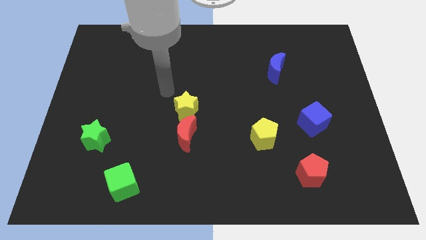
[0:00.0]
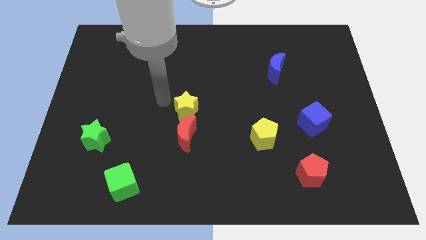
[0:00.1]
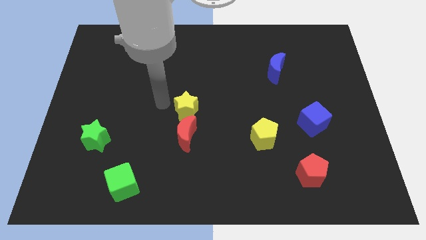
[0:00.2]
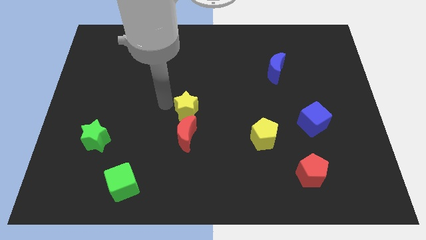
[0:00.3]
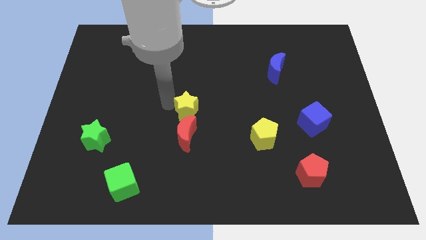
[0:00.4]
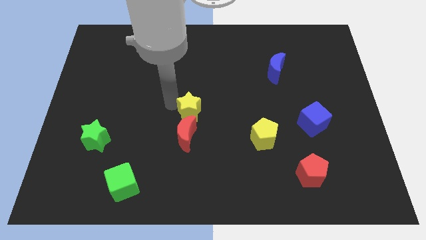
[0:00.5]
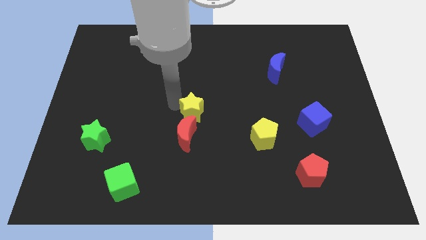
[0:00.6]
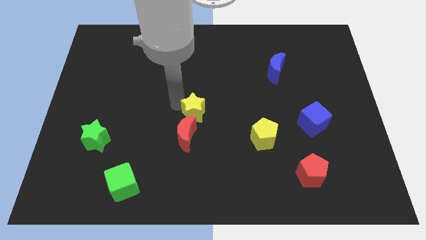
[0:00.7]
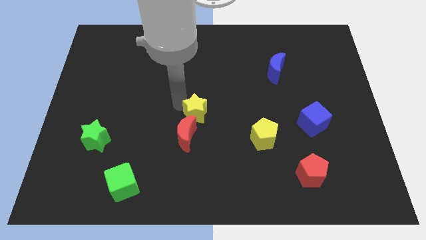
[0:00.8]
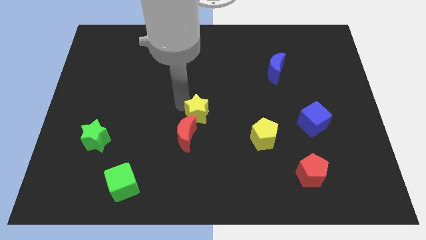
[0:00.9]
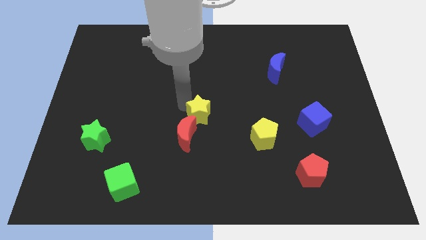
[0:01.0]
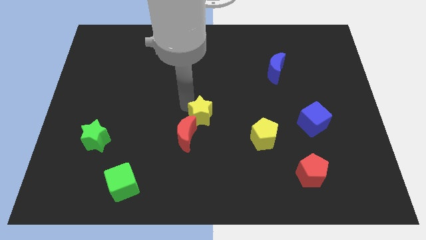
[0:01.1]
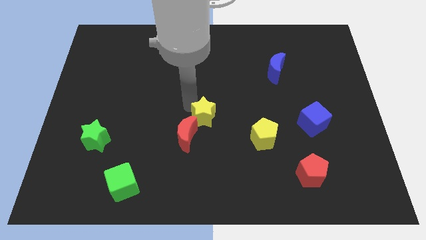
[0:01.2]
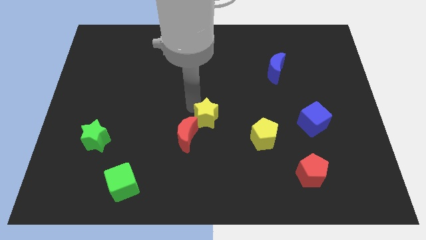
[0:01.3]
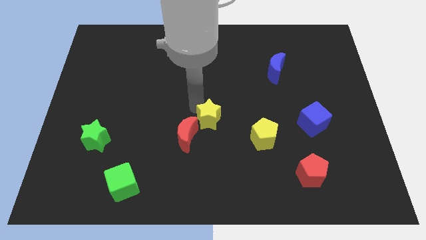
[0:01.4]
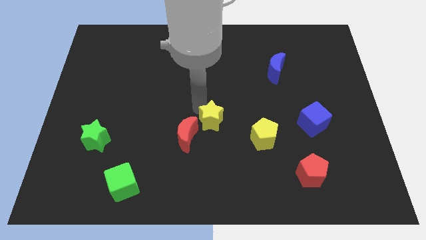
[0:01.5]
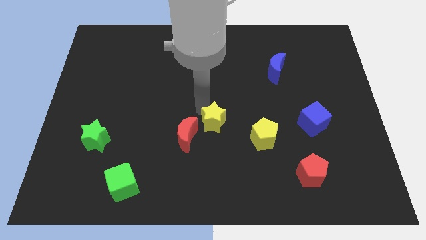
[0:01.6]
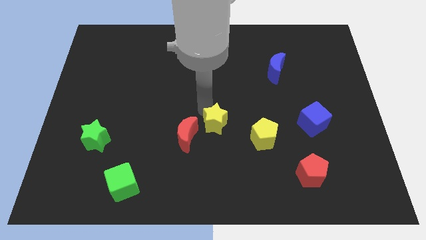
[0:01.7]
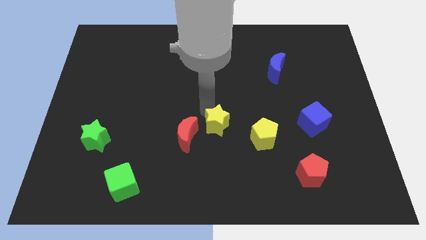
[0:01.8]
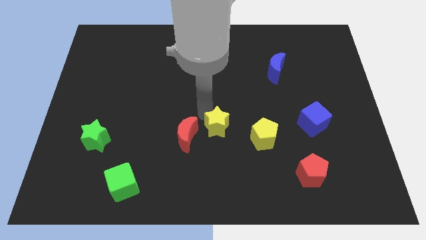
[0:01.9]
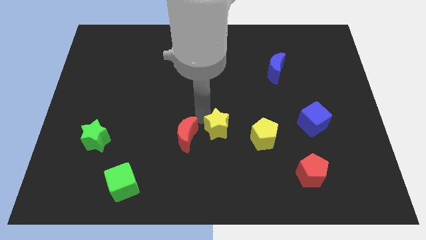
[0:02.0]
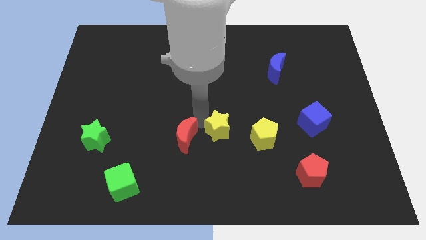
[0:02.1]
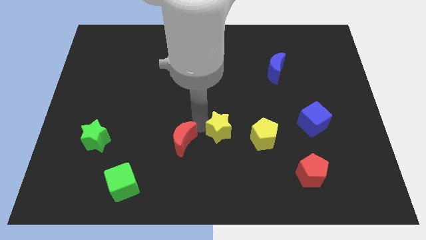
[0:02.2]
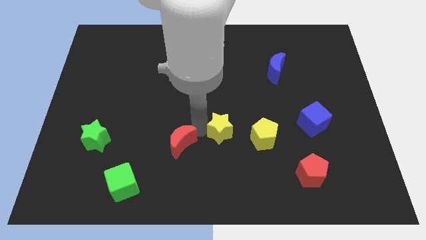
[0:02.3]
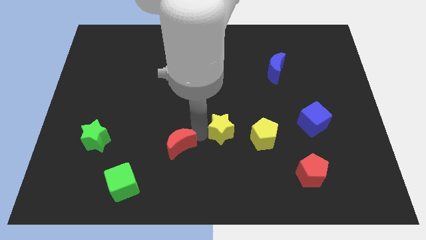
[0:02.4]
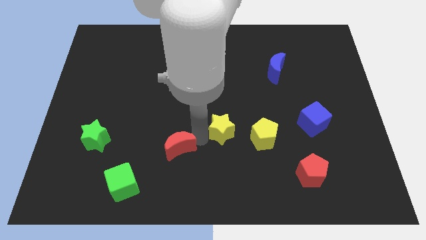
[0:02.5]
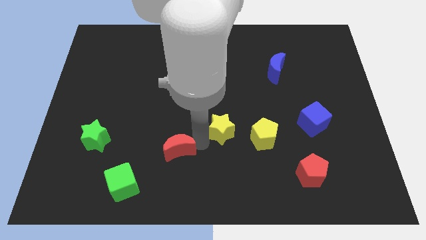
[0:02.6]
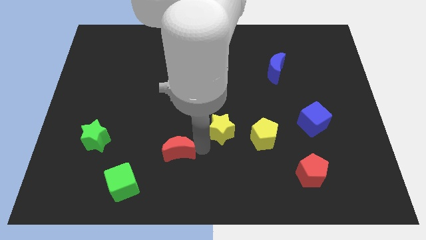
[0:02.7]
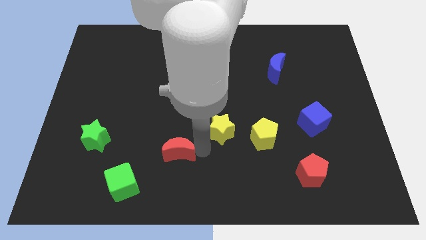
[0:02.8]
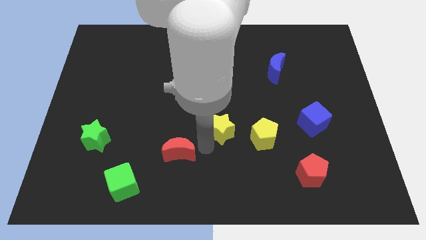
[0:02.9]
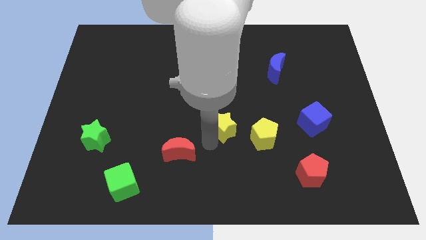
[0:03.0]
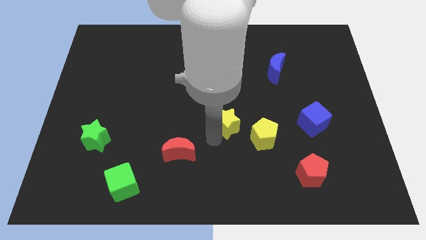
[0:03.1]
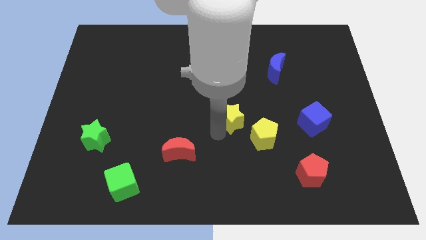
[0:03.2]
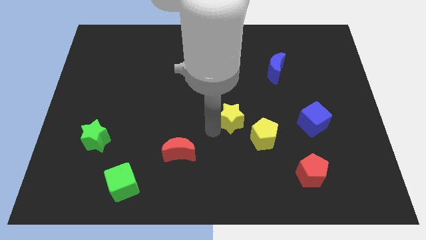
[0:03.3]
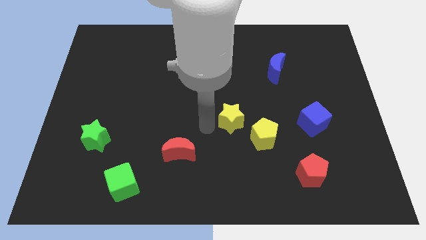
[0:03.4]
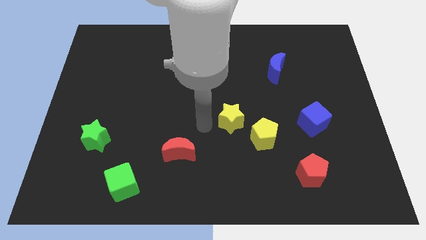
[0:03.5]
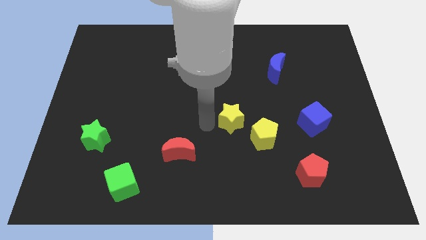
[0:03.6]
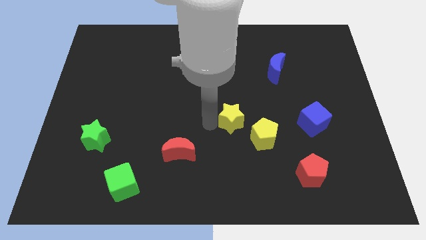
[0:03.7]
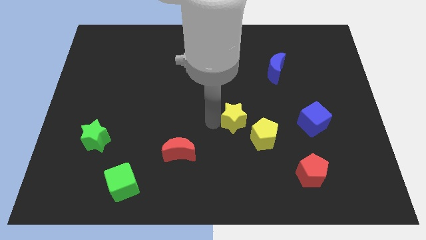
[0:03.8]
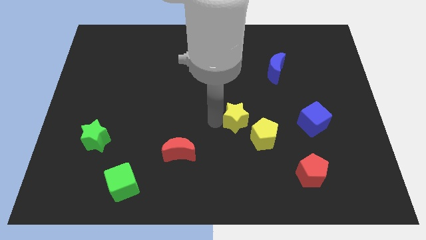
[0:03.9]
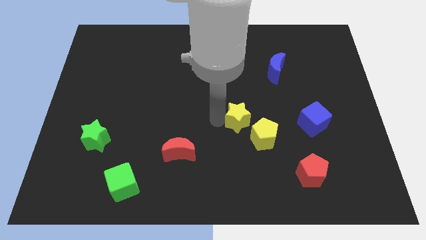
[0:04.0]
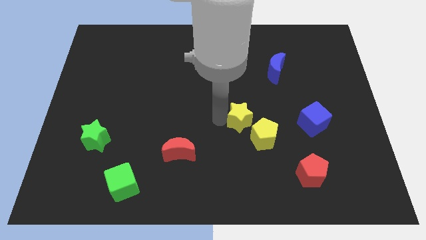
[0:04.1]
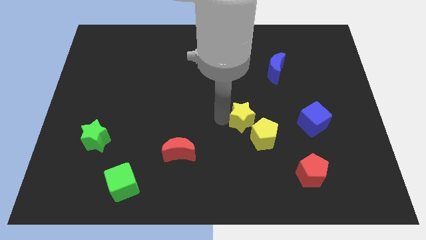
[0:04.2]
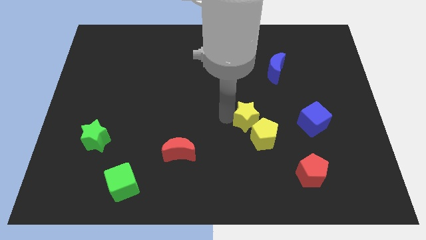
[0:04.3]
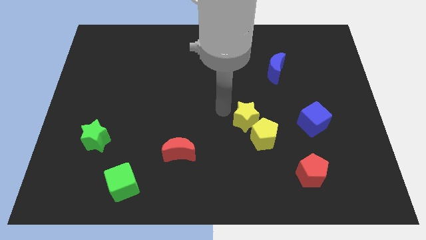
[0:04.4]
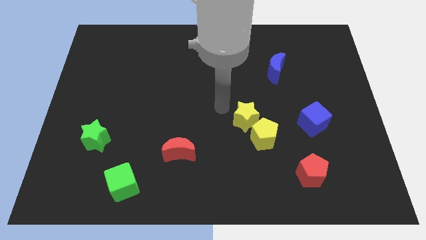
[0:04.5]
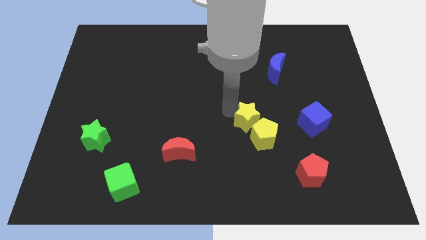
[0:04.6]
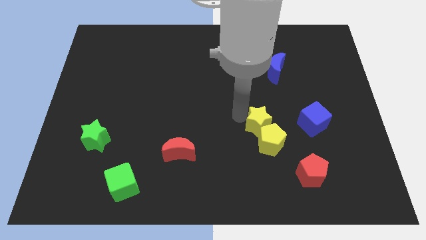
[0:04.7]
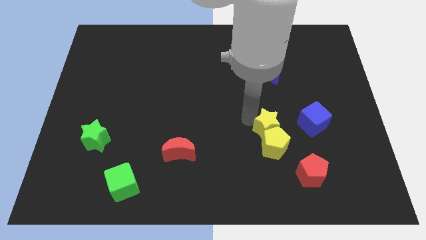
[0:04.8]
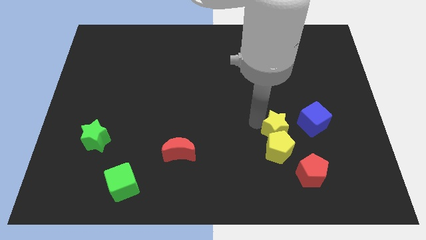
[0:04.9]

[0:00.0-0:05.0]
slide the yellow star diagonally down and to the left of the blue cube

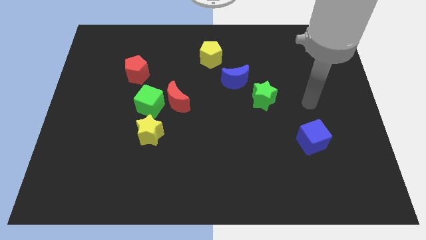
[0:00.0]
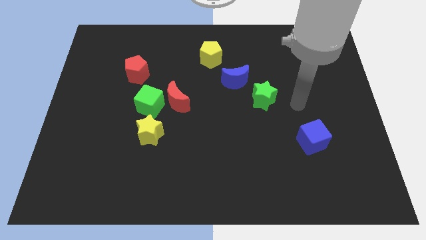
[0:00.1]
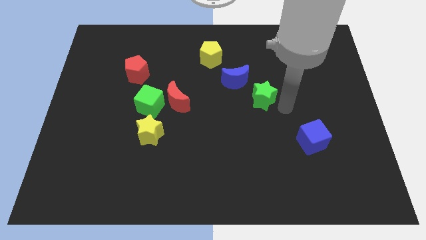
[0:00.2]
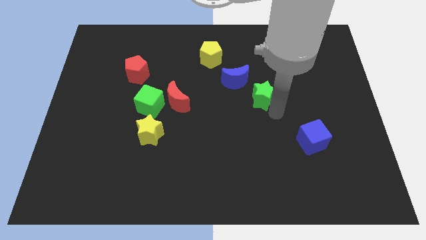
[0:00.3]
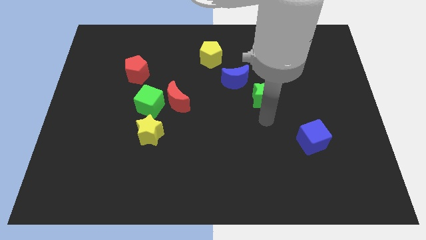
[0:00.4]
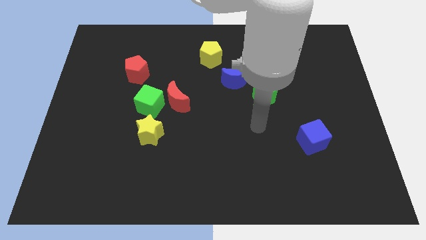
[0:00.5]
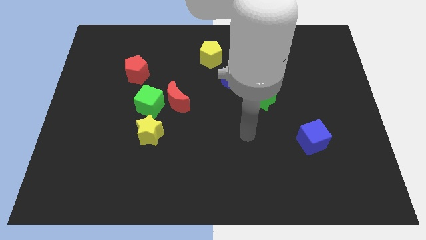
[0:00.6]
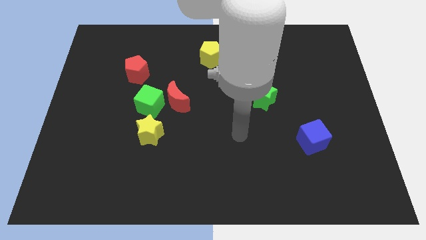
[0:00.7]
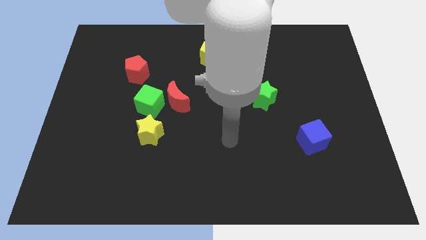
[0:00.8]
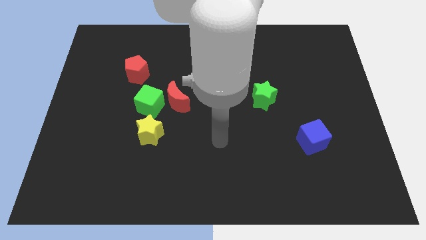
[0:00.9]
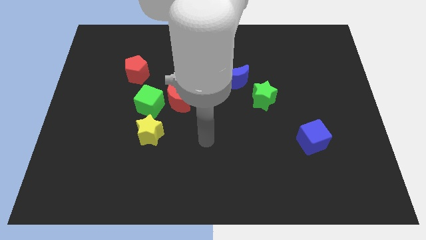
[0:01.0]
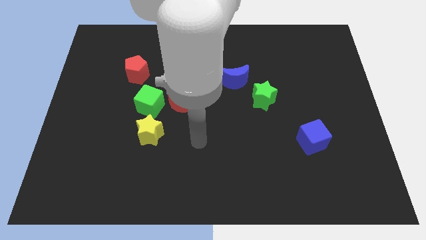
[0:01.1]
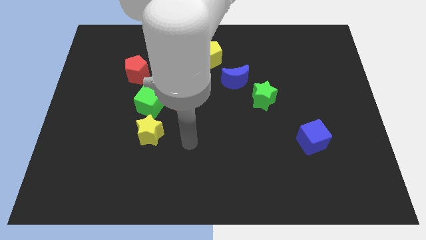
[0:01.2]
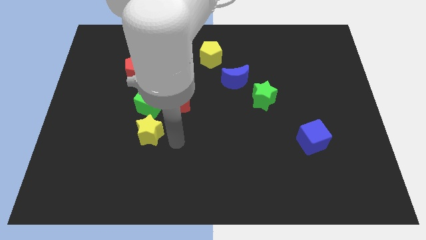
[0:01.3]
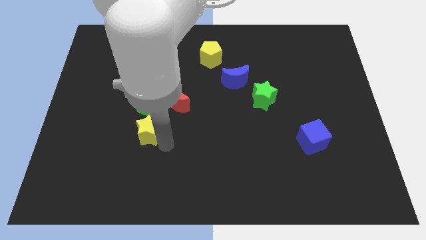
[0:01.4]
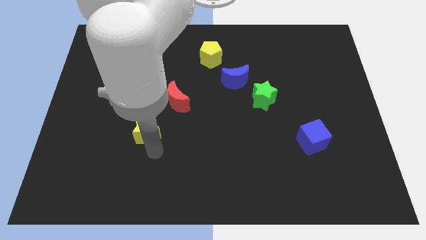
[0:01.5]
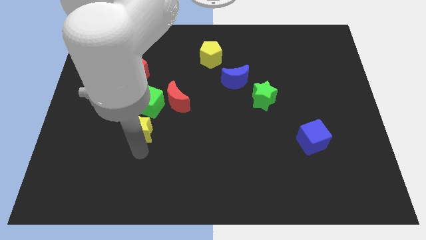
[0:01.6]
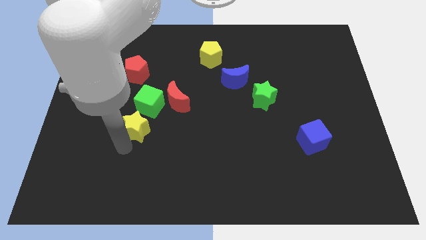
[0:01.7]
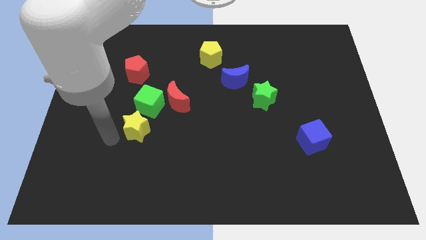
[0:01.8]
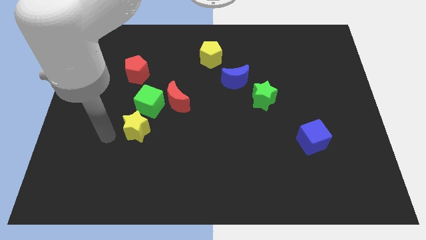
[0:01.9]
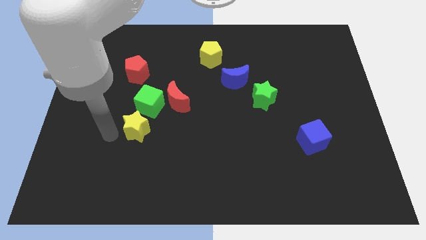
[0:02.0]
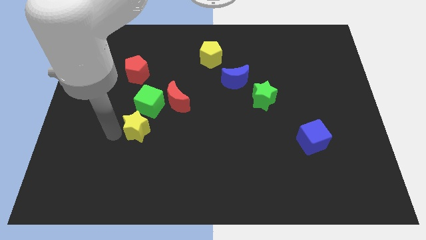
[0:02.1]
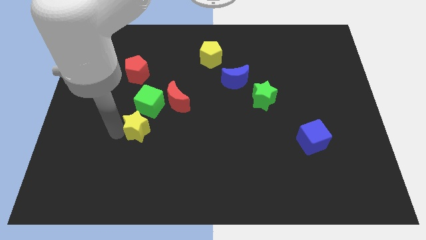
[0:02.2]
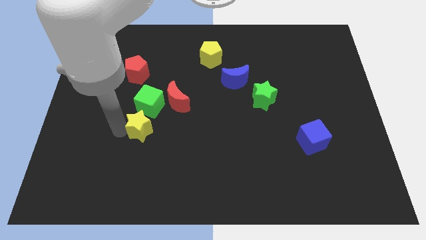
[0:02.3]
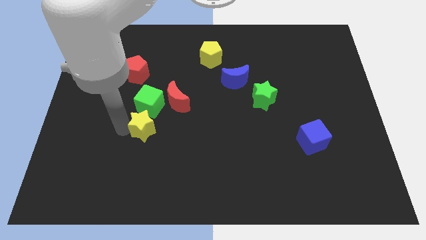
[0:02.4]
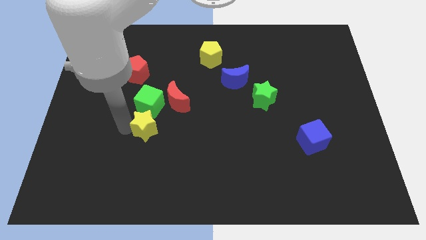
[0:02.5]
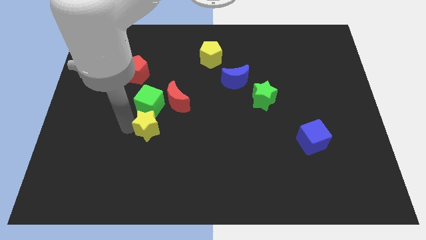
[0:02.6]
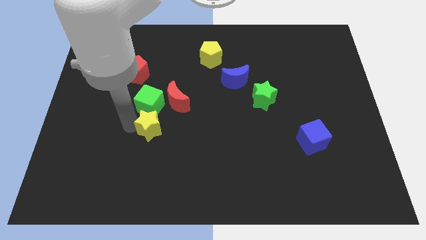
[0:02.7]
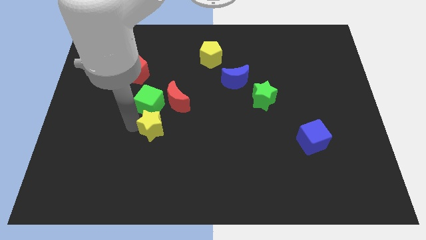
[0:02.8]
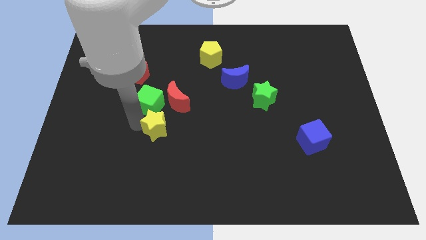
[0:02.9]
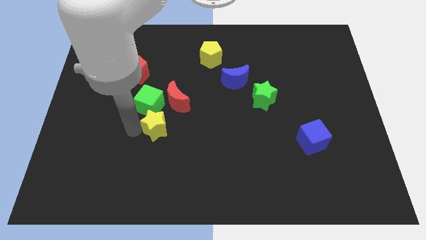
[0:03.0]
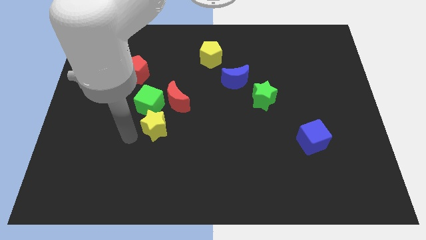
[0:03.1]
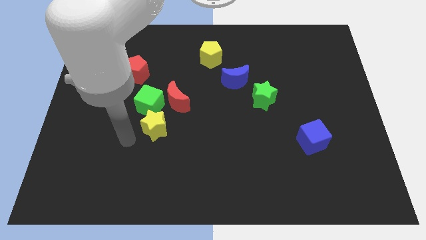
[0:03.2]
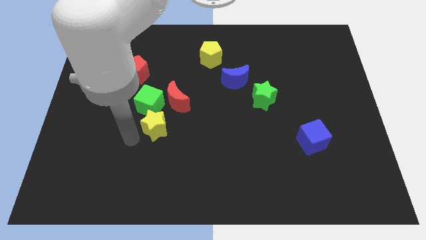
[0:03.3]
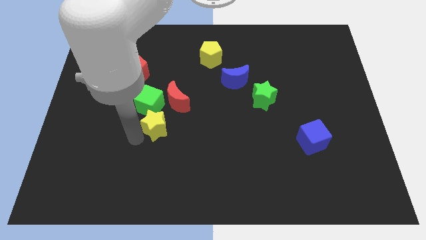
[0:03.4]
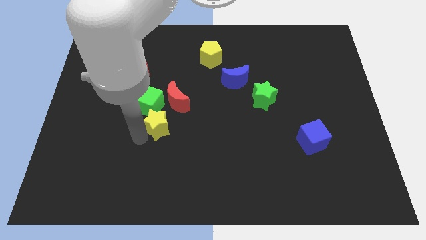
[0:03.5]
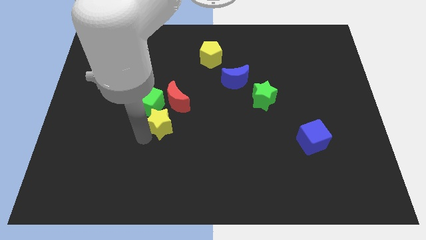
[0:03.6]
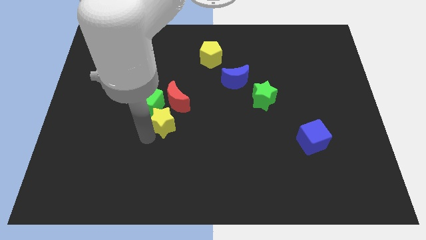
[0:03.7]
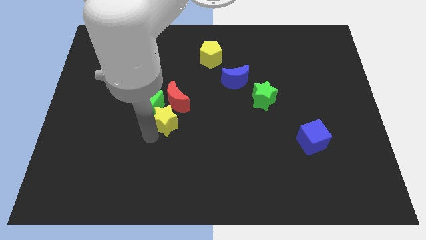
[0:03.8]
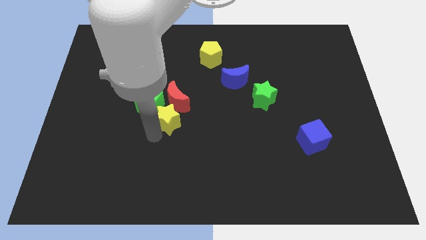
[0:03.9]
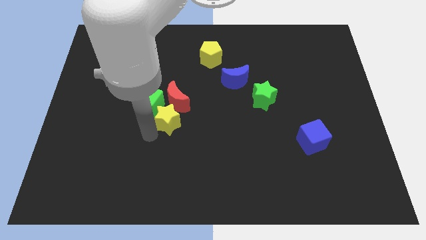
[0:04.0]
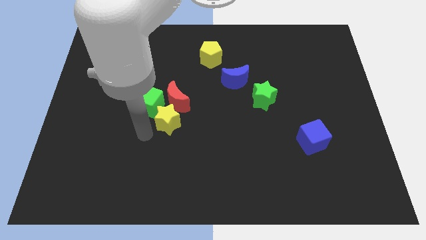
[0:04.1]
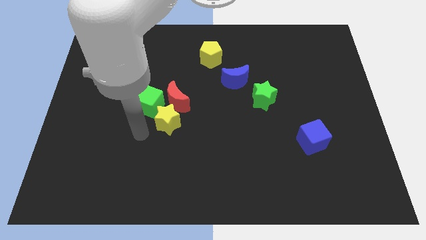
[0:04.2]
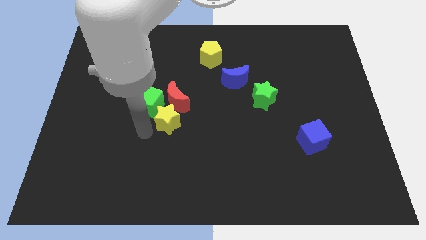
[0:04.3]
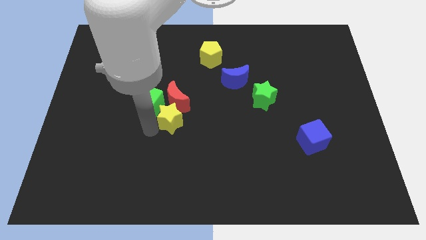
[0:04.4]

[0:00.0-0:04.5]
move the yellow star just right of the green cube
